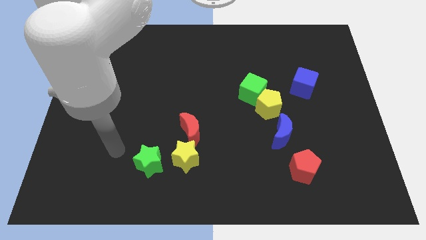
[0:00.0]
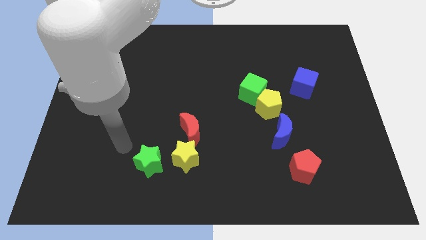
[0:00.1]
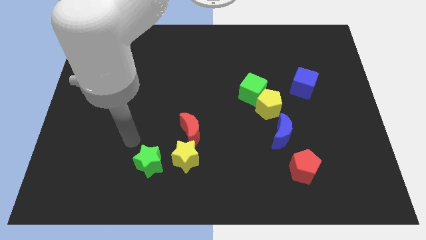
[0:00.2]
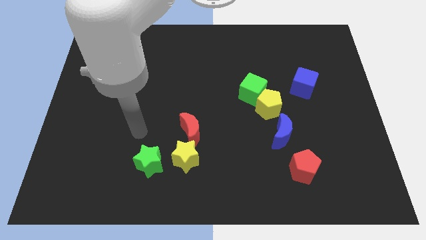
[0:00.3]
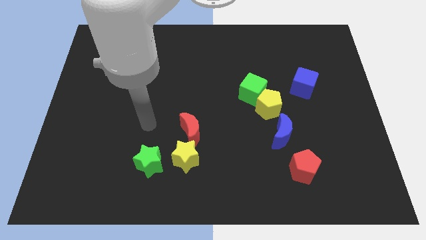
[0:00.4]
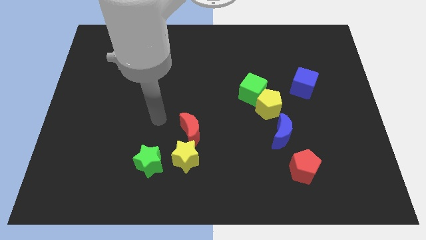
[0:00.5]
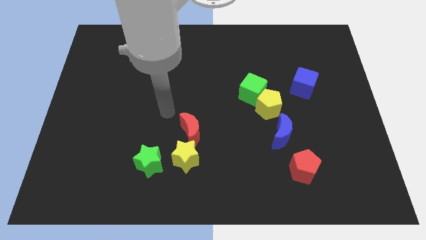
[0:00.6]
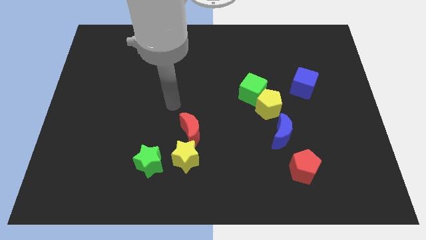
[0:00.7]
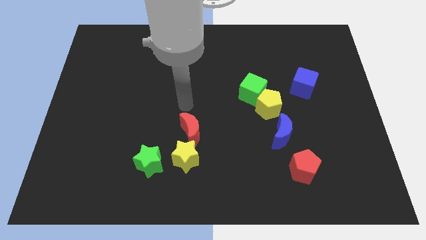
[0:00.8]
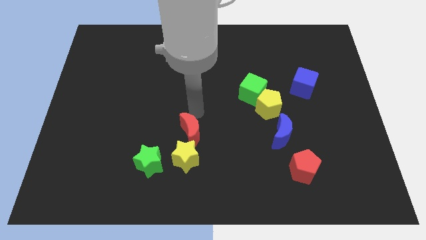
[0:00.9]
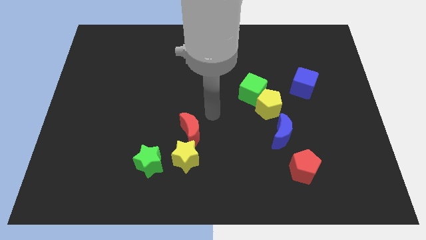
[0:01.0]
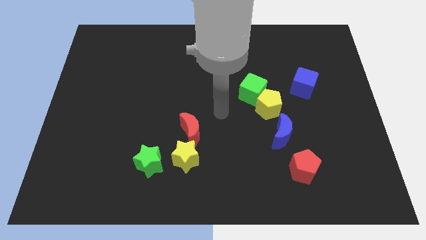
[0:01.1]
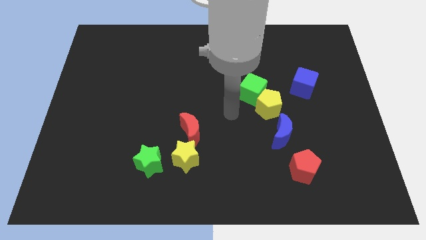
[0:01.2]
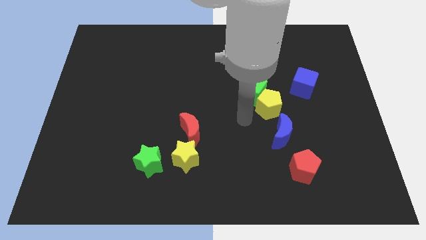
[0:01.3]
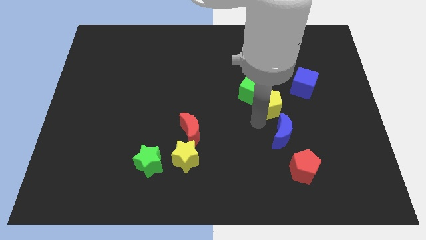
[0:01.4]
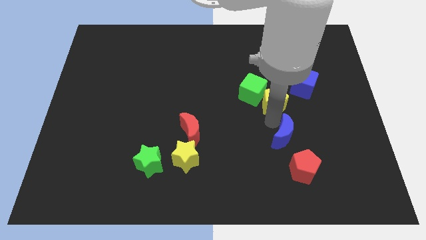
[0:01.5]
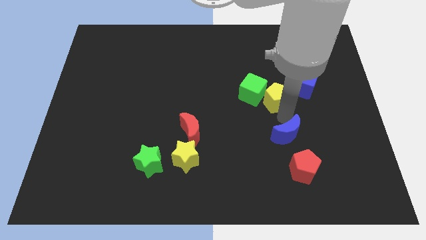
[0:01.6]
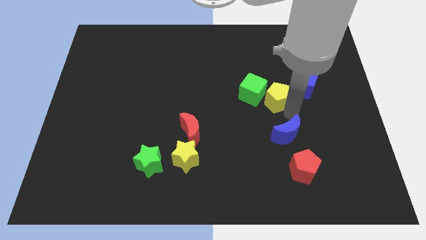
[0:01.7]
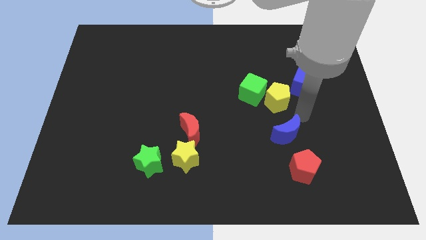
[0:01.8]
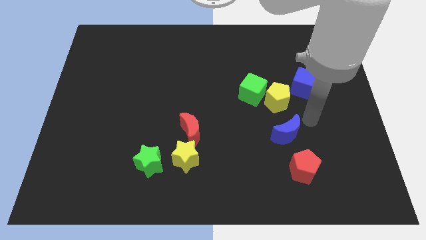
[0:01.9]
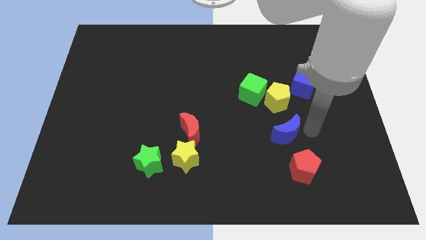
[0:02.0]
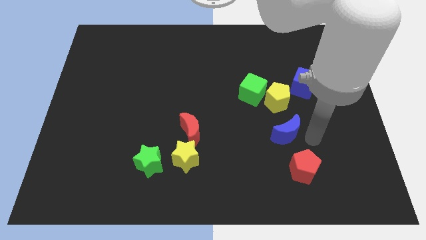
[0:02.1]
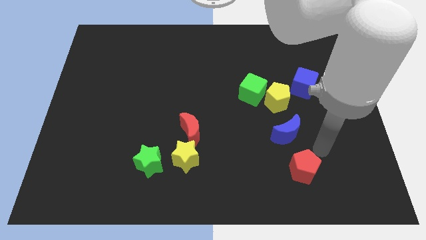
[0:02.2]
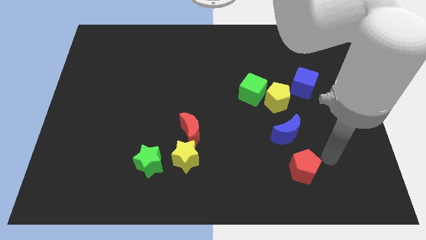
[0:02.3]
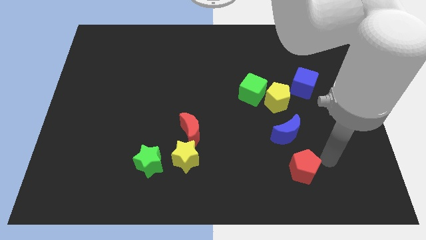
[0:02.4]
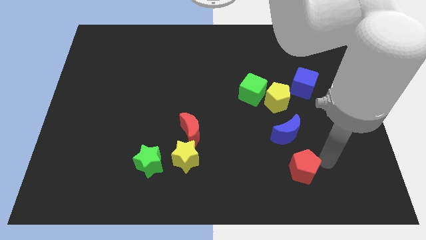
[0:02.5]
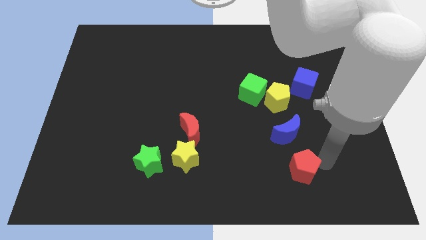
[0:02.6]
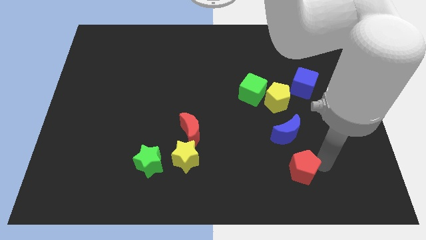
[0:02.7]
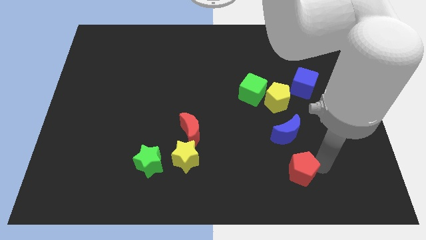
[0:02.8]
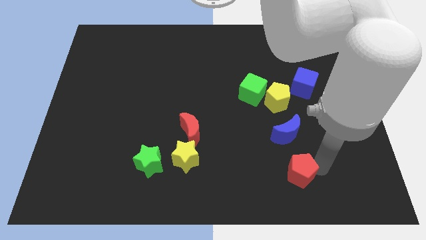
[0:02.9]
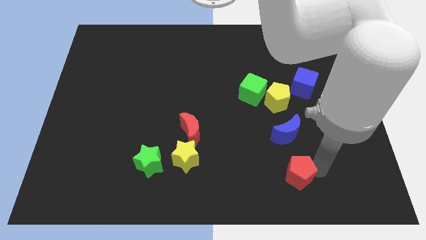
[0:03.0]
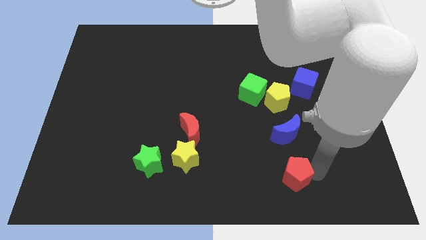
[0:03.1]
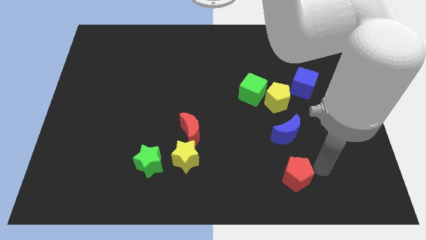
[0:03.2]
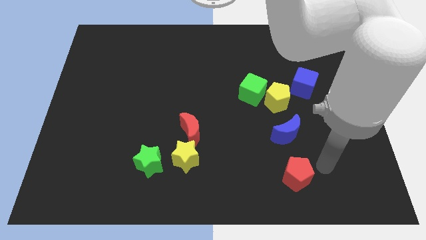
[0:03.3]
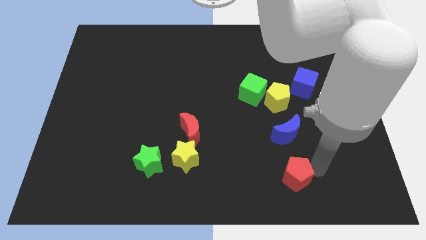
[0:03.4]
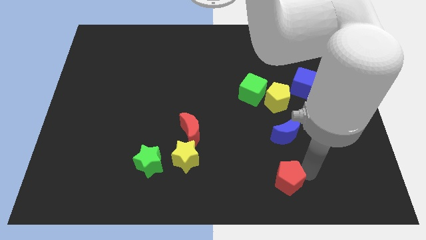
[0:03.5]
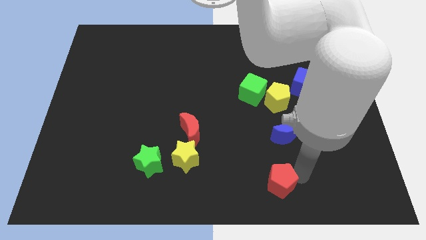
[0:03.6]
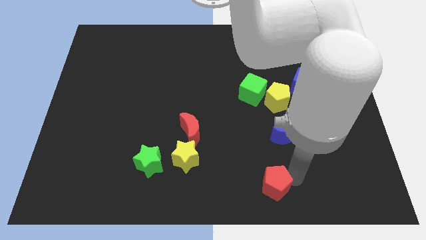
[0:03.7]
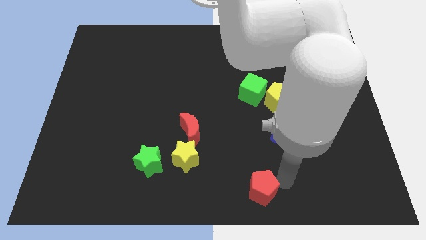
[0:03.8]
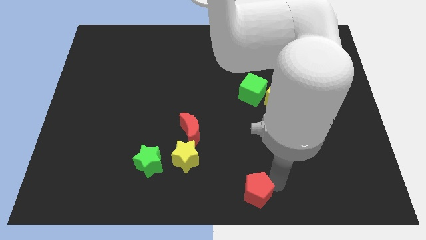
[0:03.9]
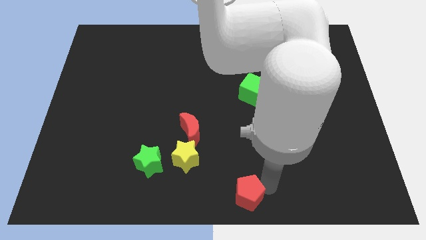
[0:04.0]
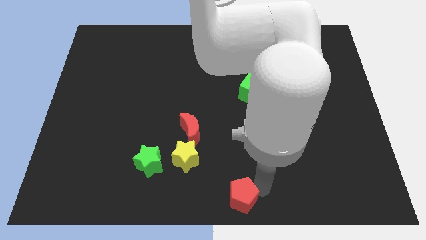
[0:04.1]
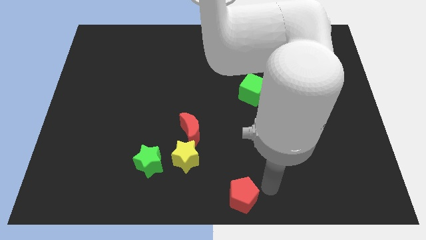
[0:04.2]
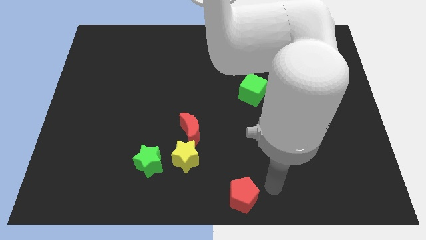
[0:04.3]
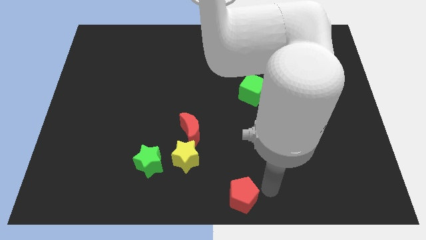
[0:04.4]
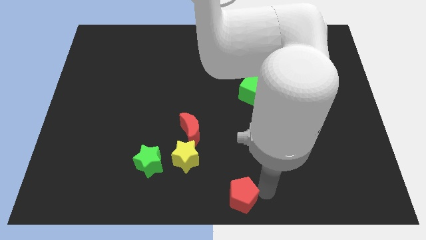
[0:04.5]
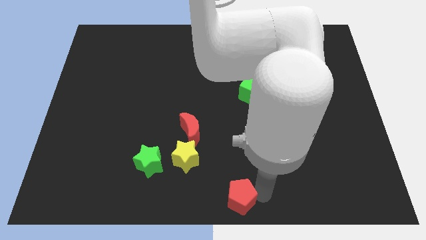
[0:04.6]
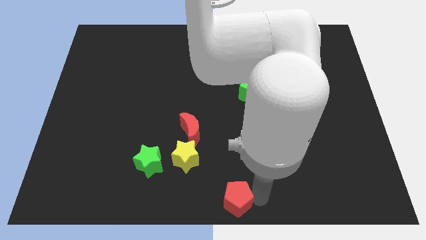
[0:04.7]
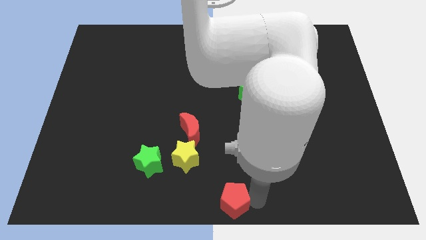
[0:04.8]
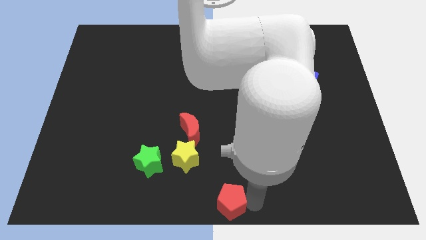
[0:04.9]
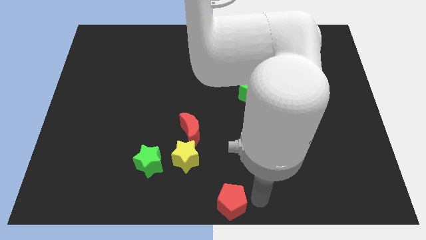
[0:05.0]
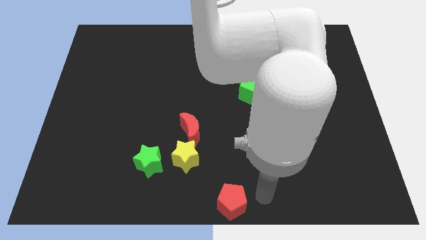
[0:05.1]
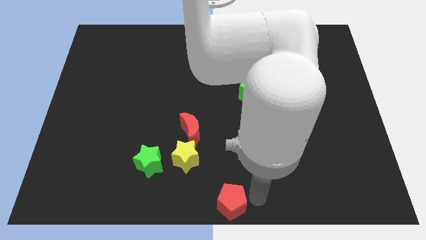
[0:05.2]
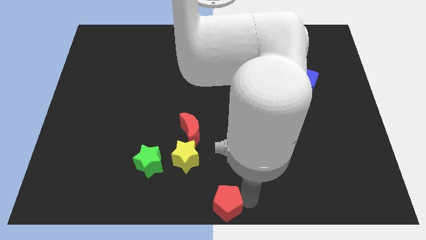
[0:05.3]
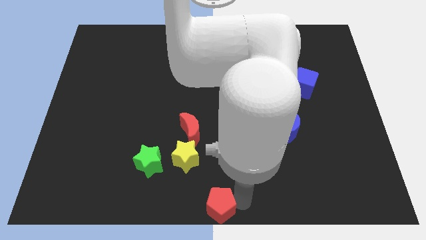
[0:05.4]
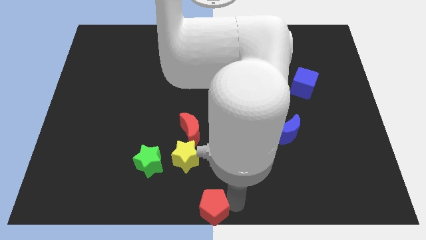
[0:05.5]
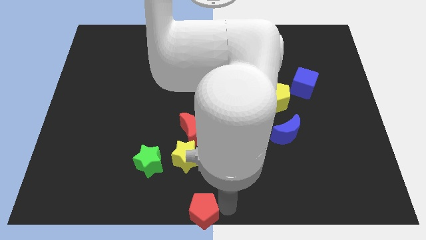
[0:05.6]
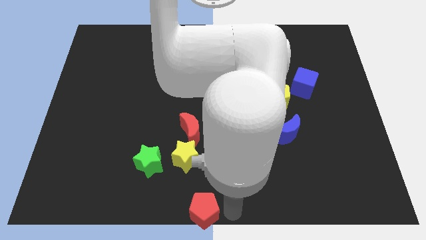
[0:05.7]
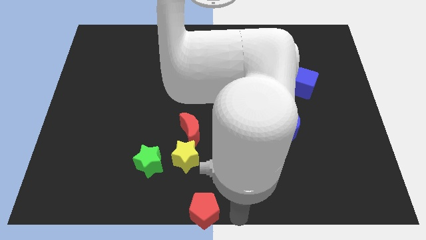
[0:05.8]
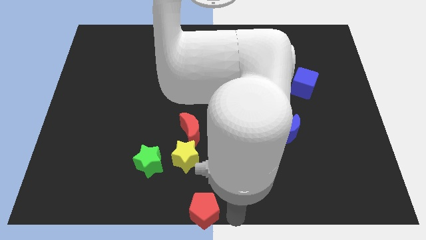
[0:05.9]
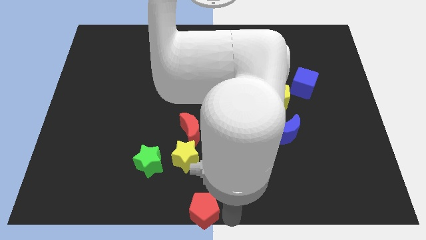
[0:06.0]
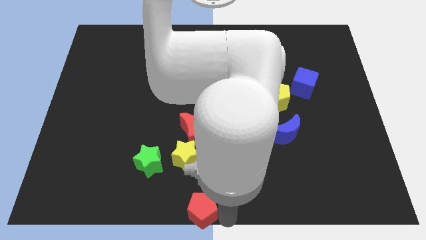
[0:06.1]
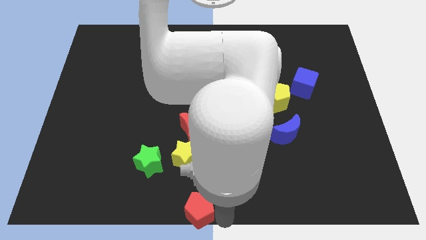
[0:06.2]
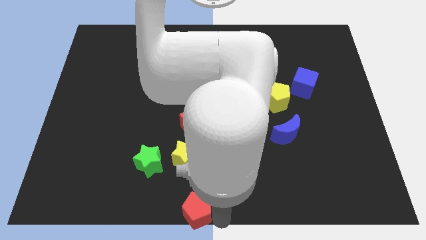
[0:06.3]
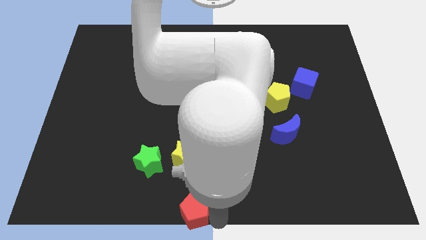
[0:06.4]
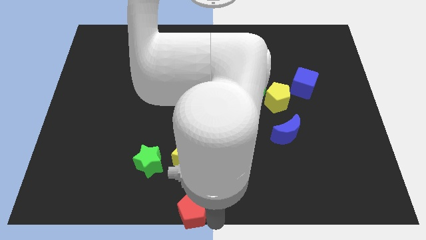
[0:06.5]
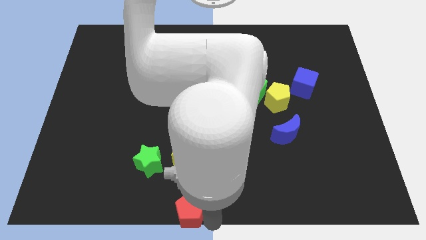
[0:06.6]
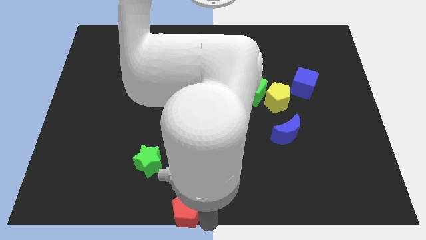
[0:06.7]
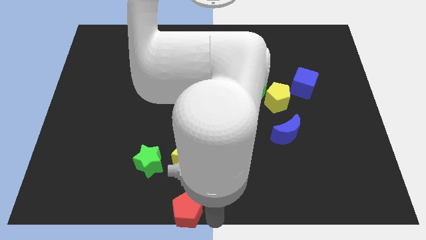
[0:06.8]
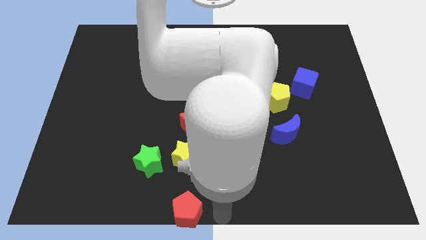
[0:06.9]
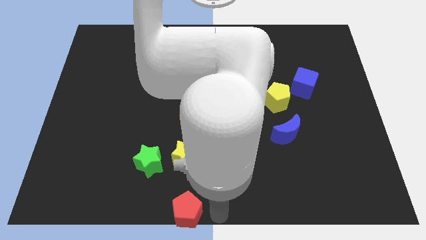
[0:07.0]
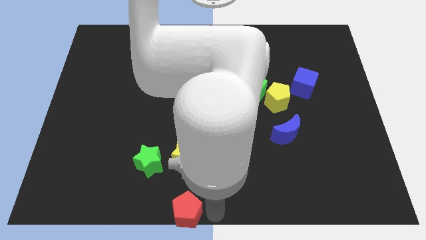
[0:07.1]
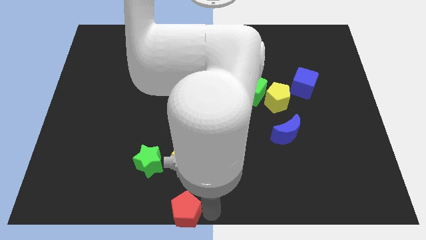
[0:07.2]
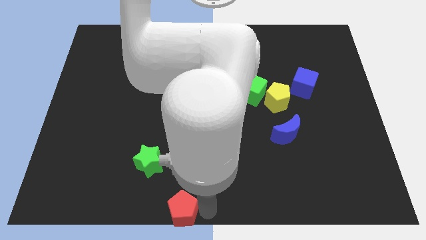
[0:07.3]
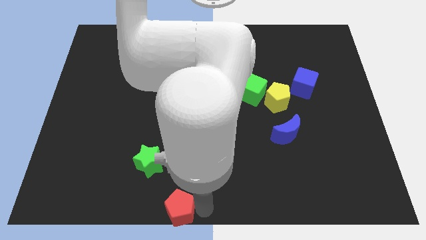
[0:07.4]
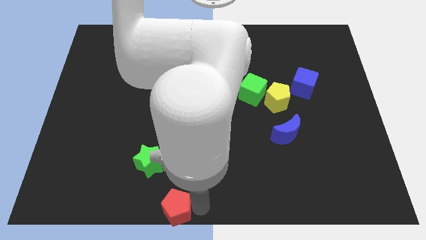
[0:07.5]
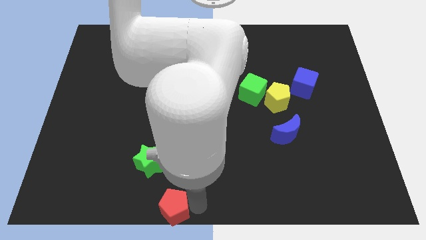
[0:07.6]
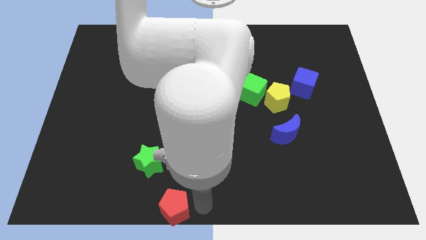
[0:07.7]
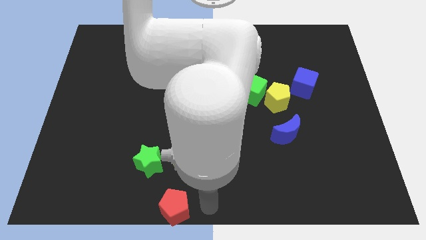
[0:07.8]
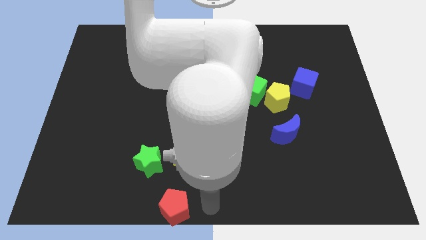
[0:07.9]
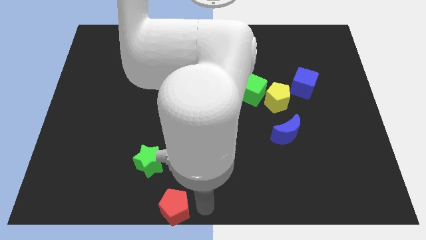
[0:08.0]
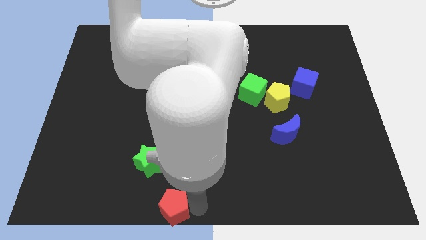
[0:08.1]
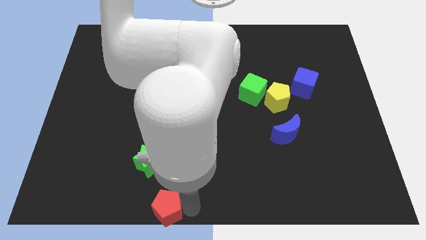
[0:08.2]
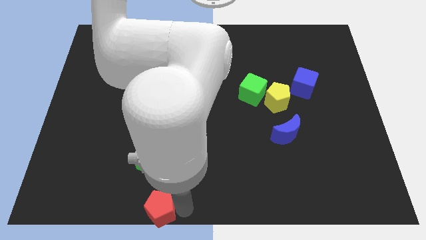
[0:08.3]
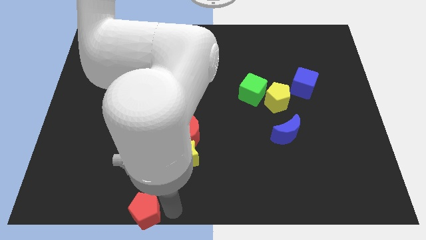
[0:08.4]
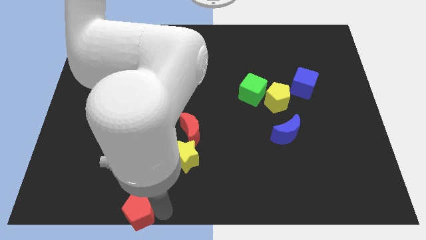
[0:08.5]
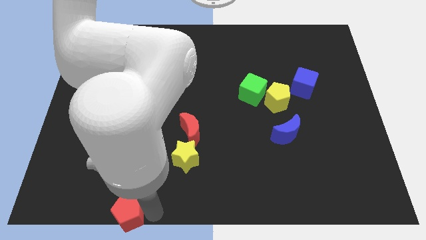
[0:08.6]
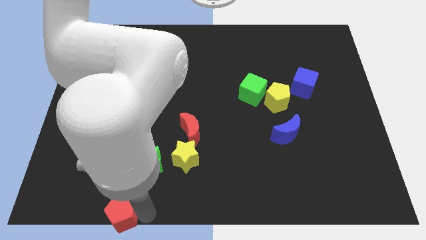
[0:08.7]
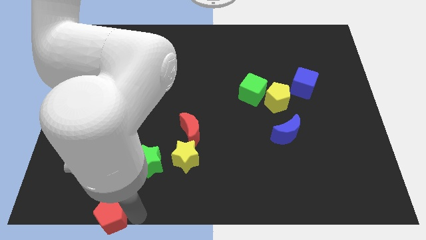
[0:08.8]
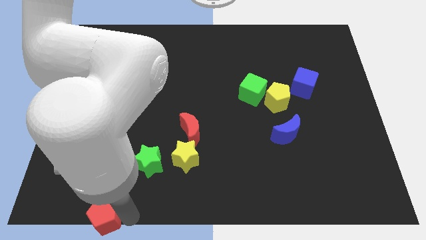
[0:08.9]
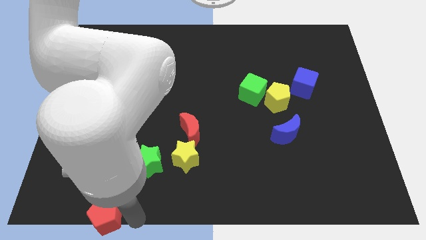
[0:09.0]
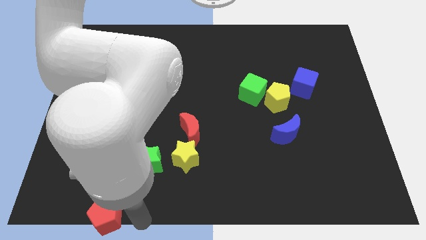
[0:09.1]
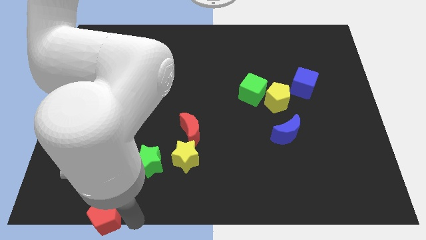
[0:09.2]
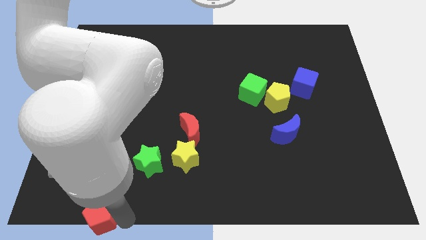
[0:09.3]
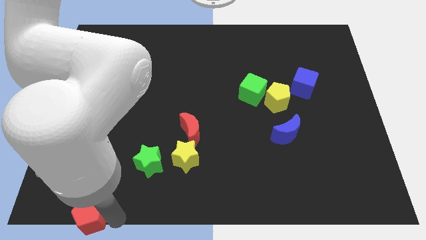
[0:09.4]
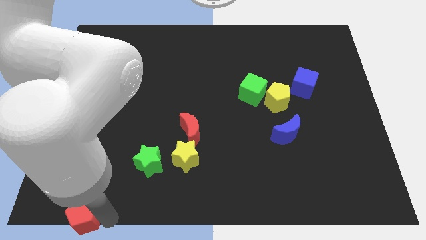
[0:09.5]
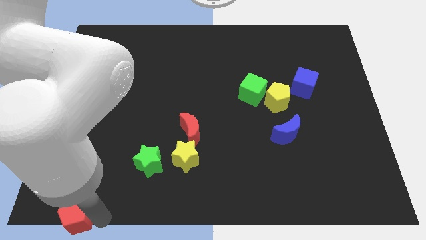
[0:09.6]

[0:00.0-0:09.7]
slide the red pentagon to the lower left corner
